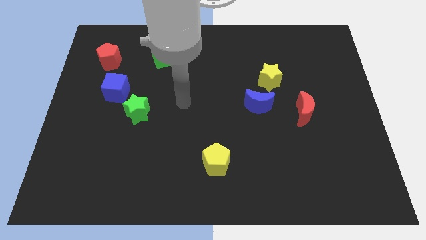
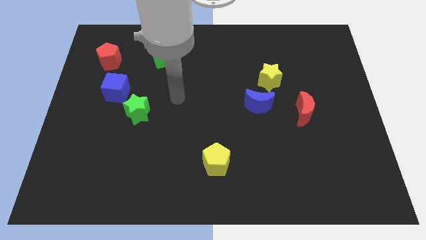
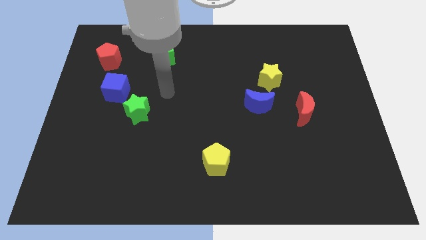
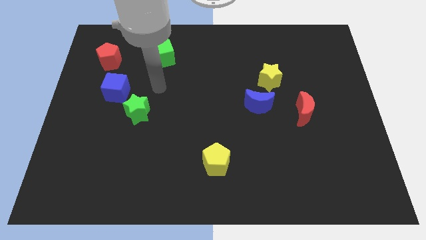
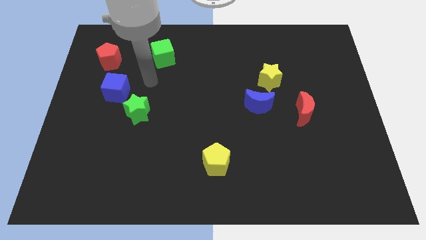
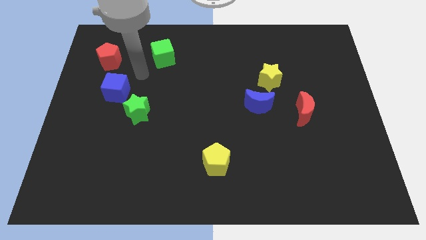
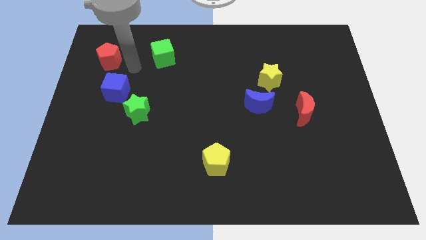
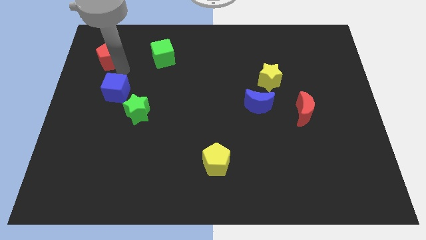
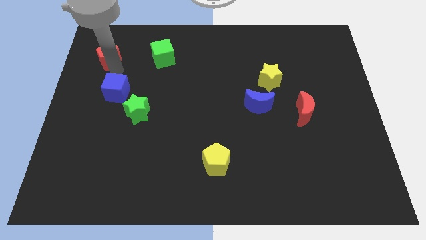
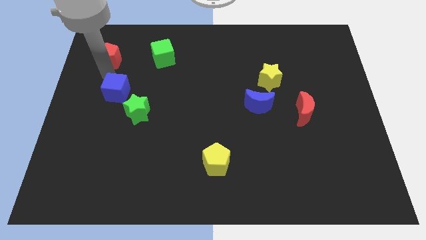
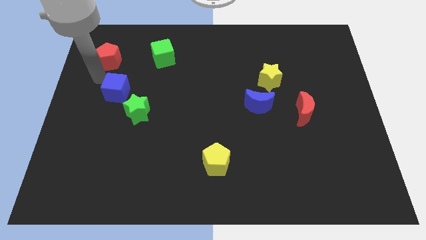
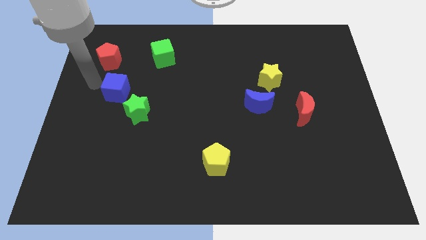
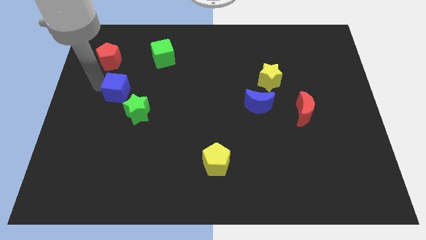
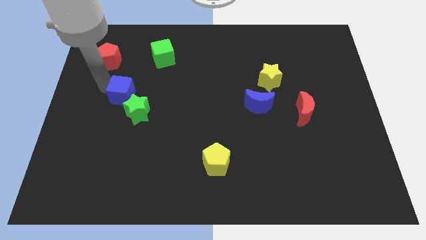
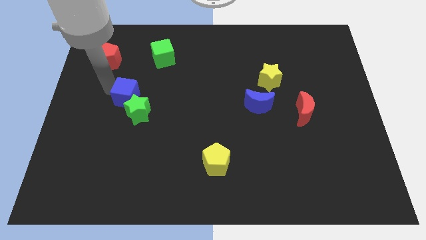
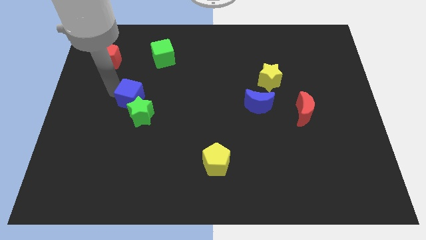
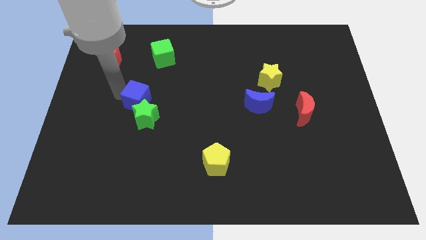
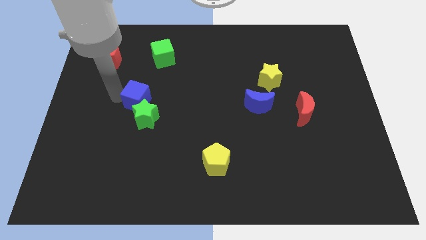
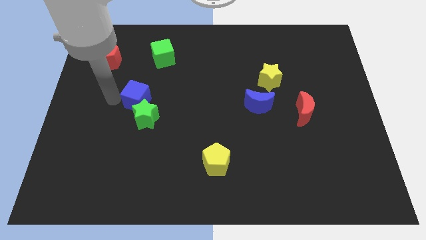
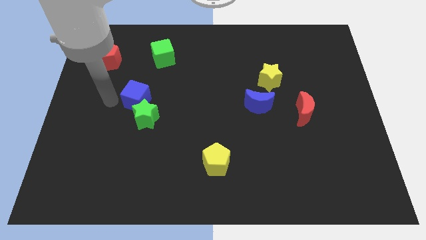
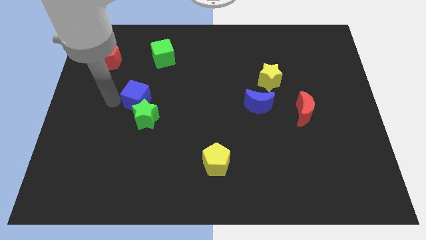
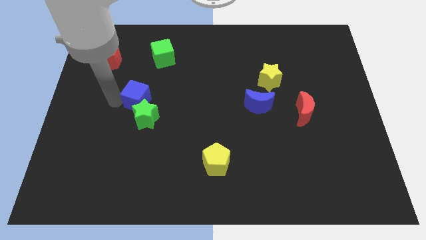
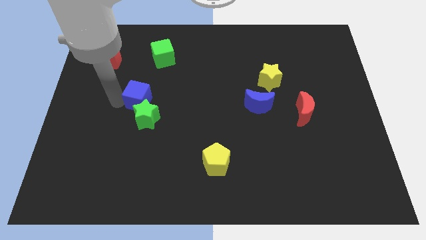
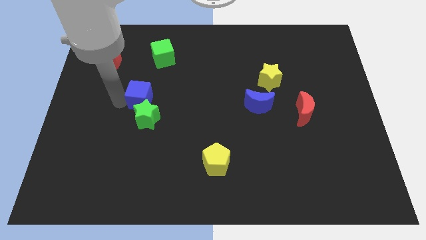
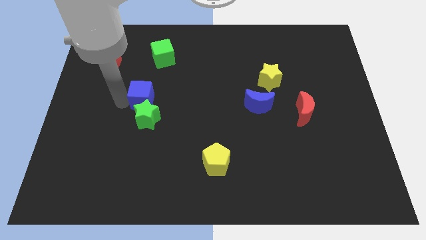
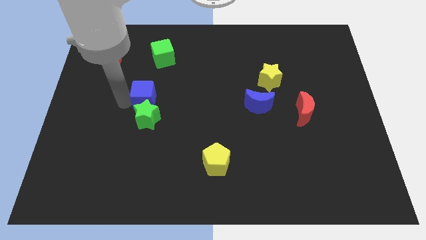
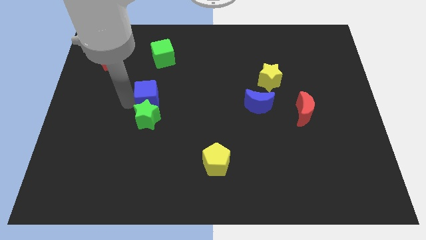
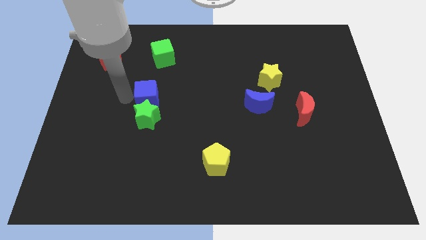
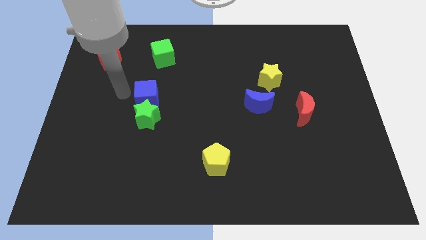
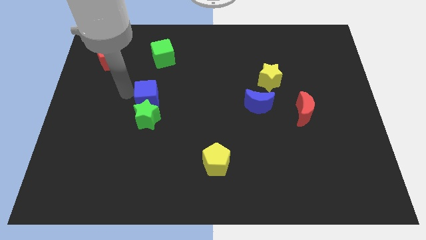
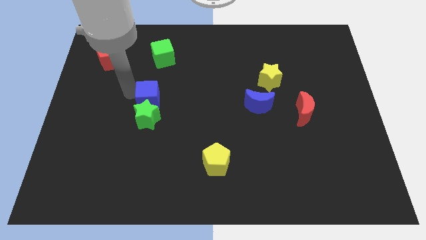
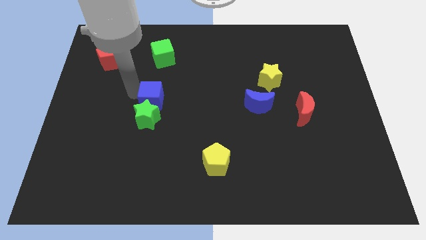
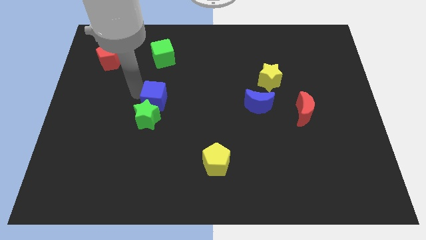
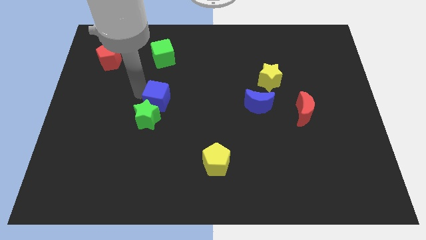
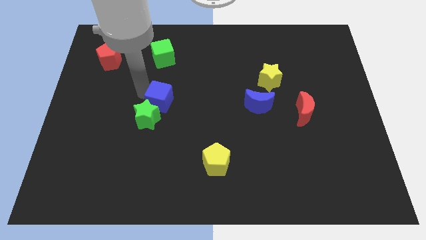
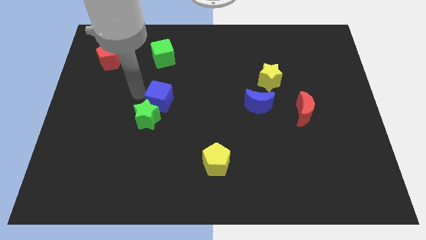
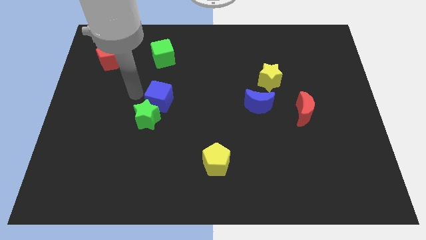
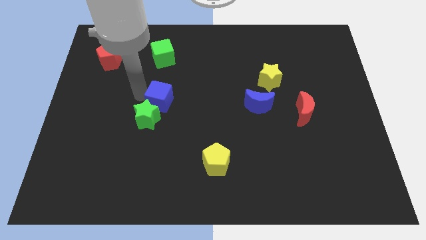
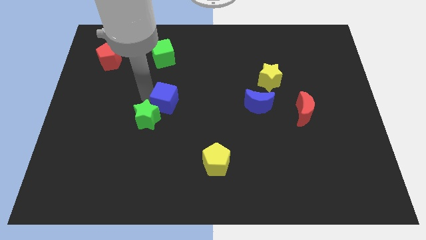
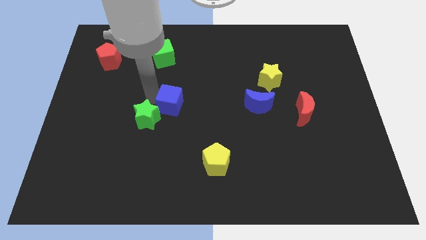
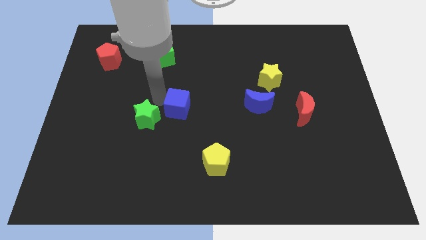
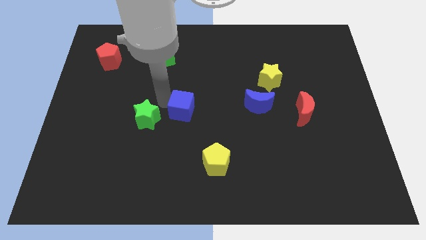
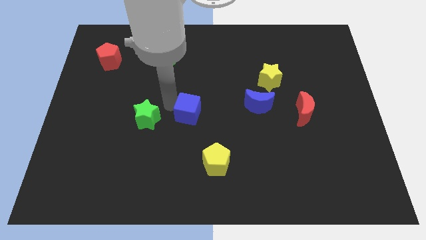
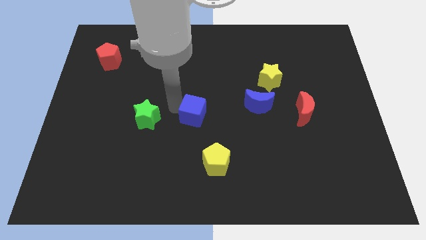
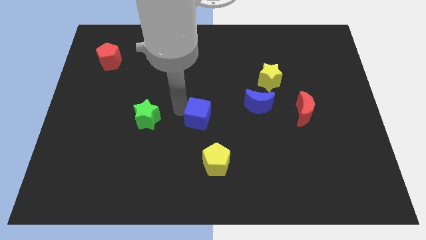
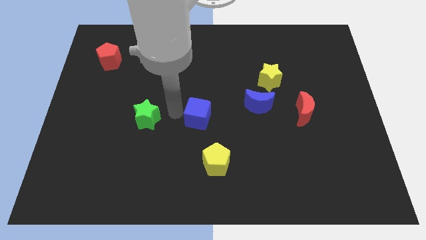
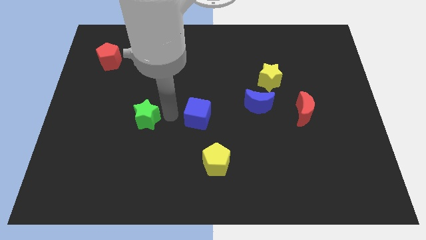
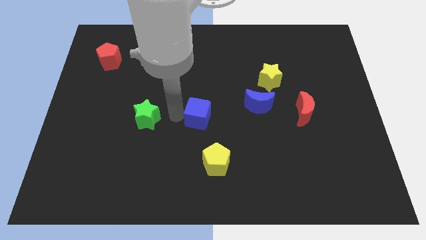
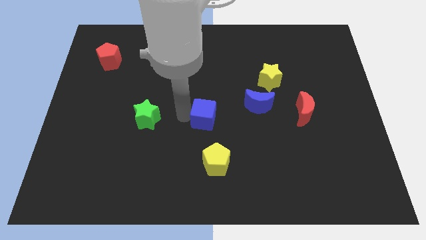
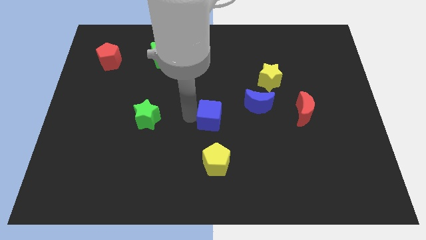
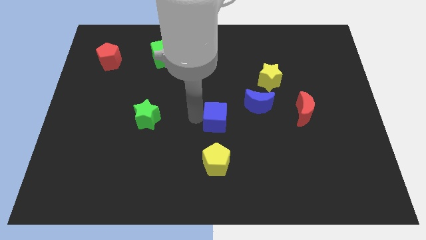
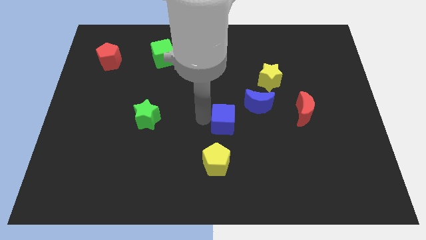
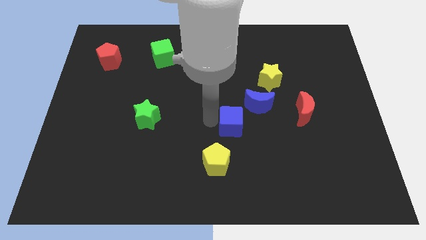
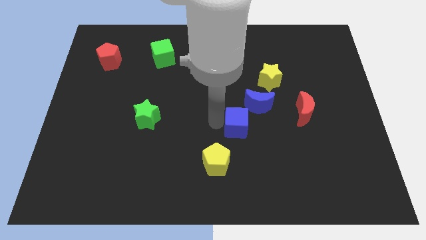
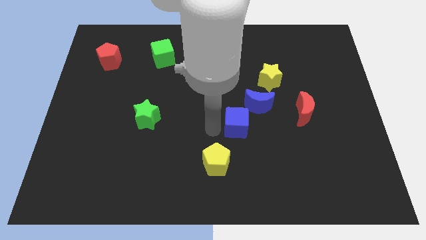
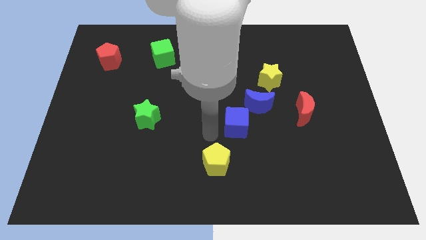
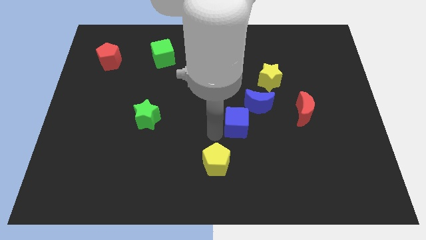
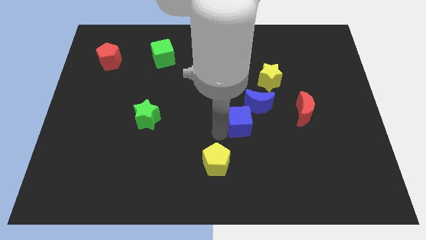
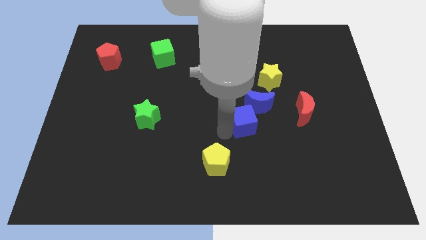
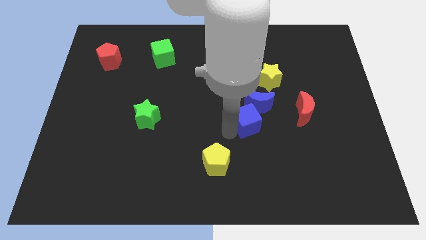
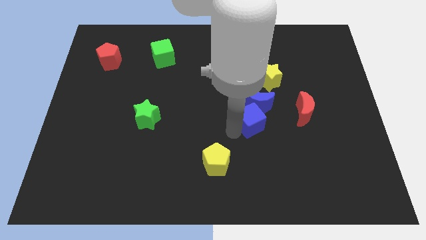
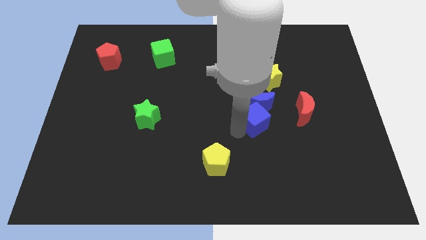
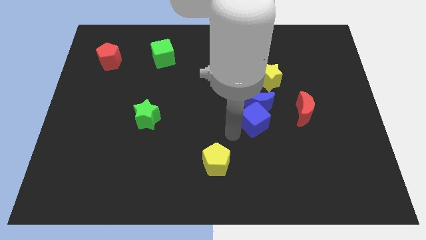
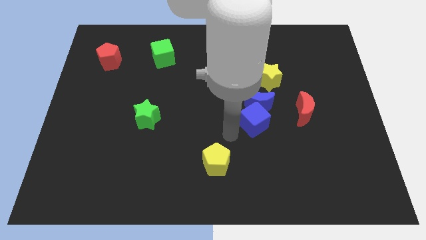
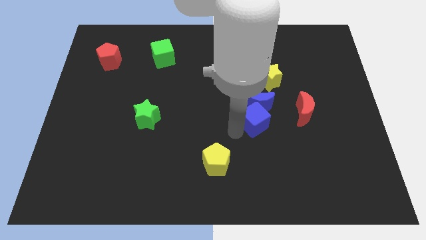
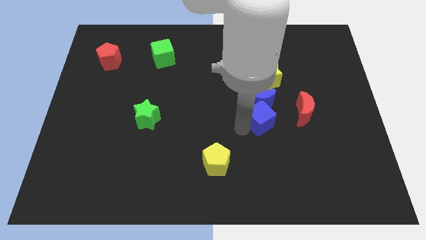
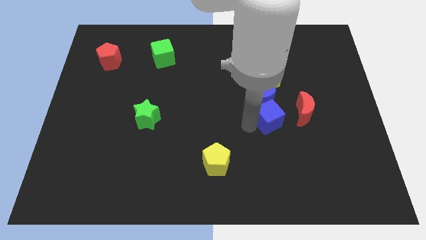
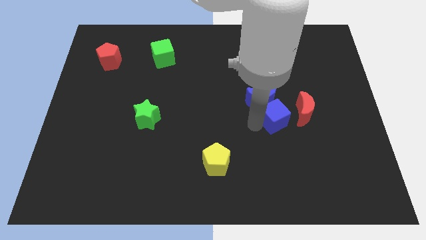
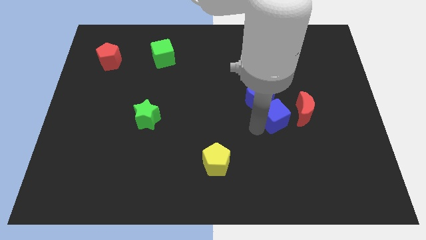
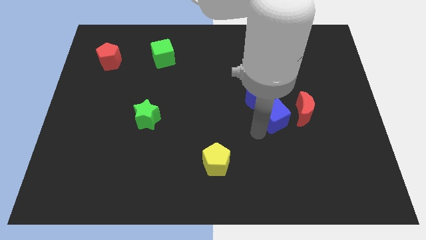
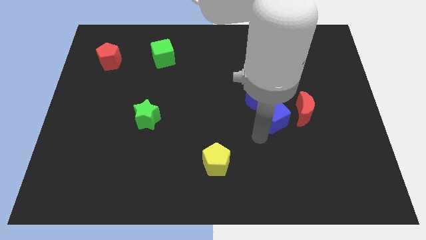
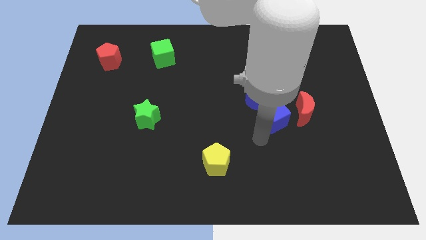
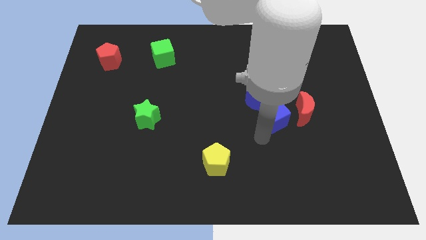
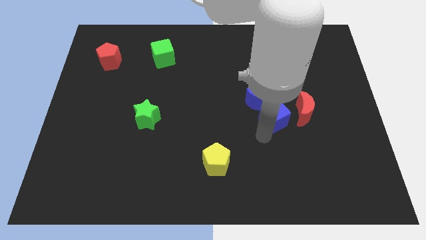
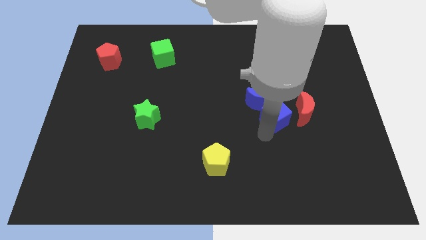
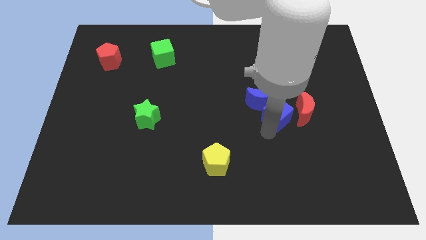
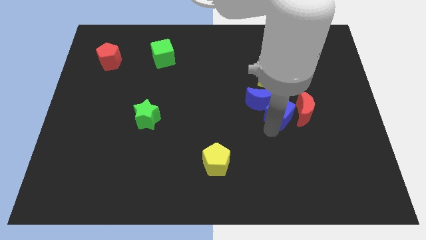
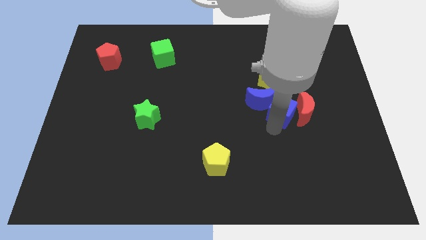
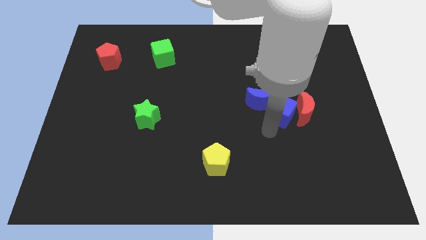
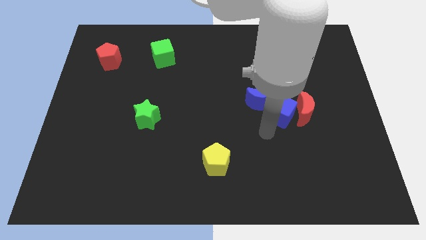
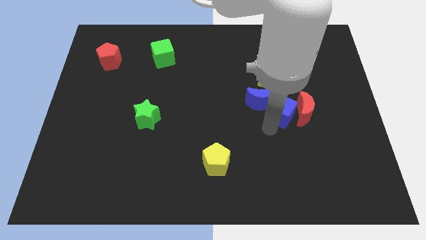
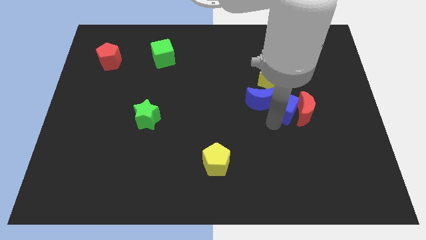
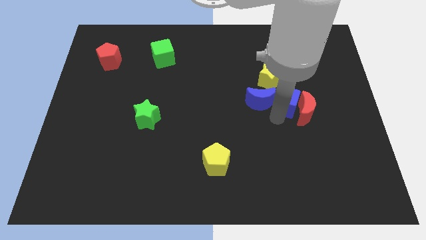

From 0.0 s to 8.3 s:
put the blue cube diagonally down and to the right of the yellow star
